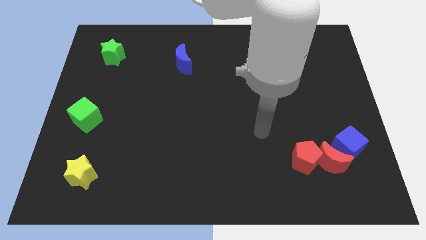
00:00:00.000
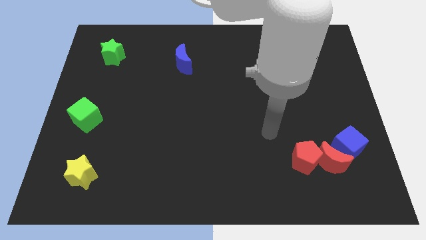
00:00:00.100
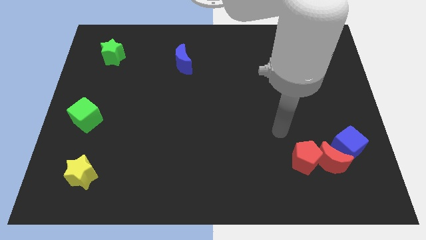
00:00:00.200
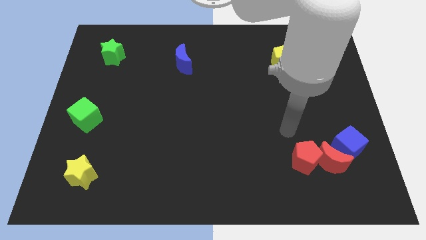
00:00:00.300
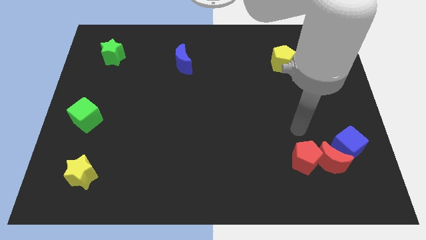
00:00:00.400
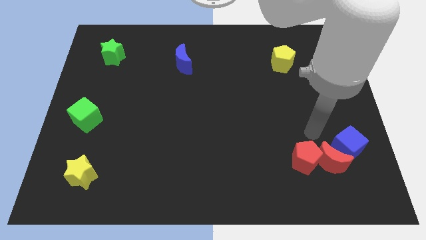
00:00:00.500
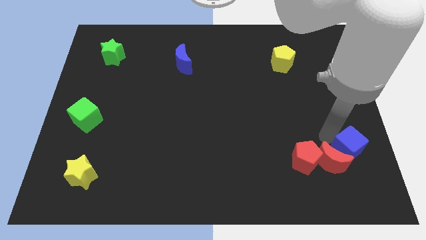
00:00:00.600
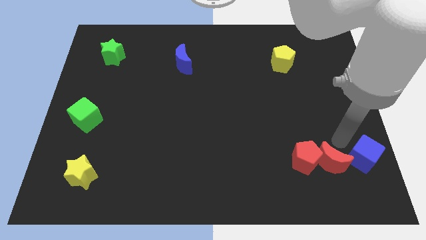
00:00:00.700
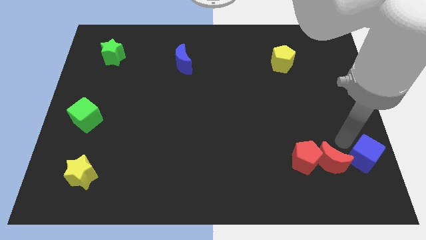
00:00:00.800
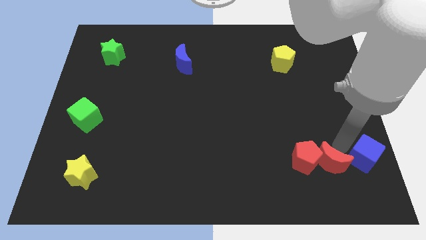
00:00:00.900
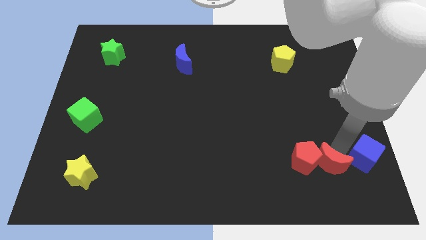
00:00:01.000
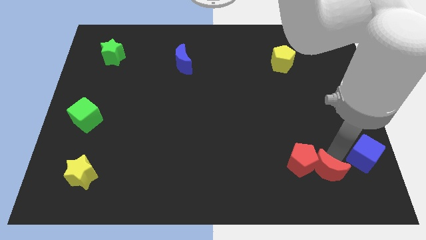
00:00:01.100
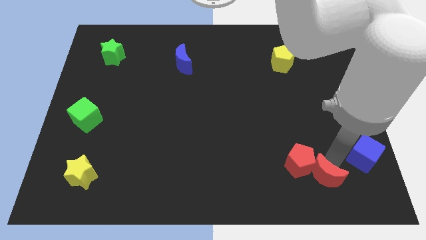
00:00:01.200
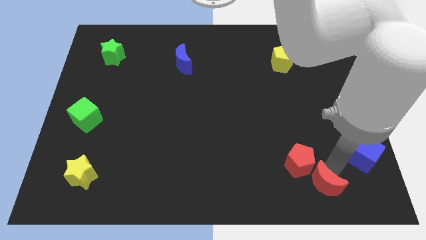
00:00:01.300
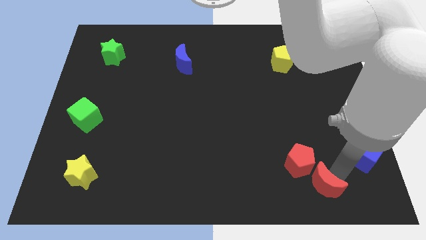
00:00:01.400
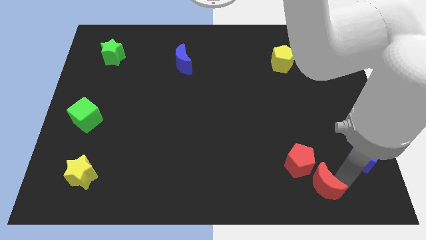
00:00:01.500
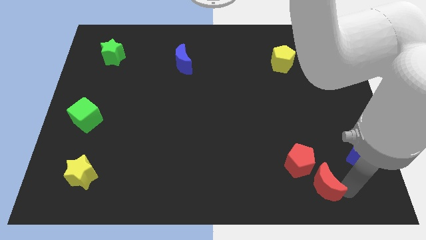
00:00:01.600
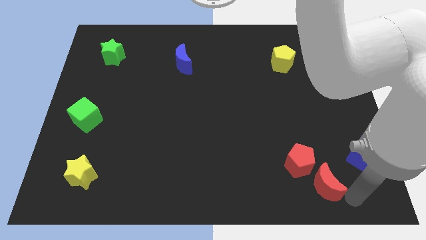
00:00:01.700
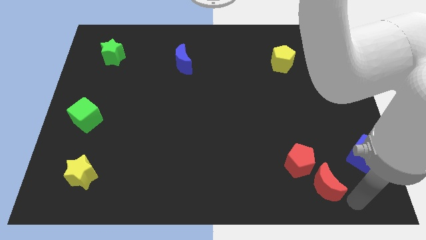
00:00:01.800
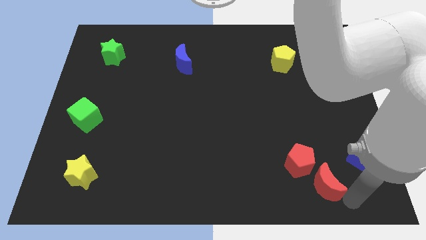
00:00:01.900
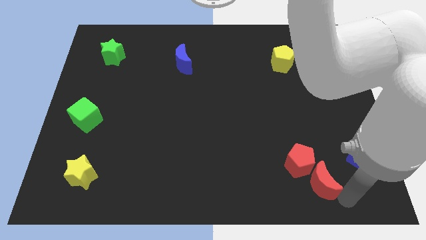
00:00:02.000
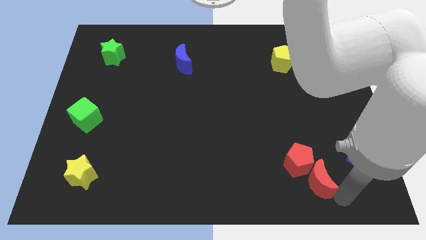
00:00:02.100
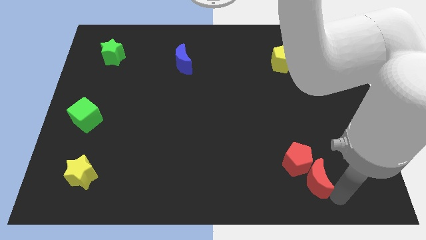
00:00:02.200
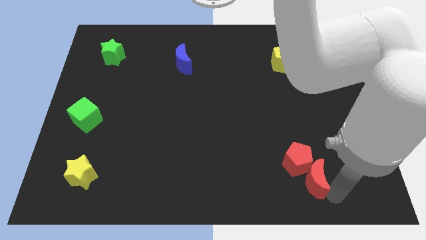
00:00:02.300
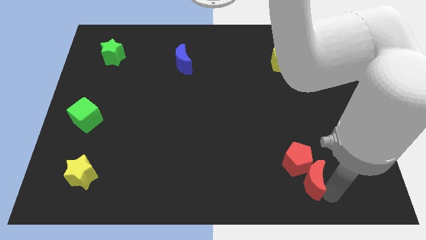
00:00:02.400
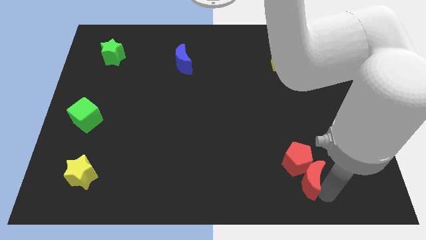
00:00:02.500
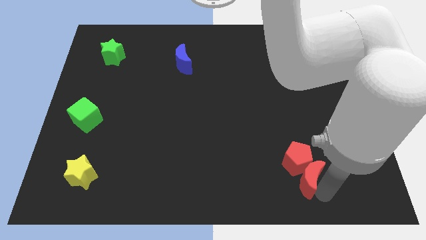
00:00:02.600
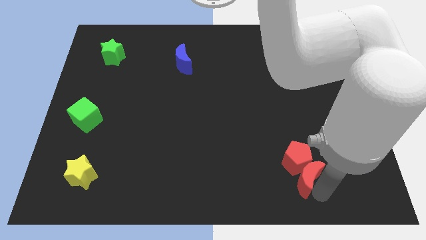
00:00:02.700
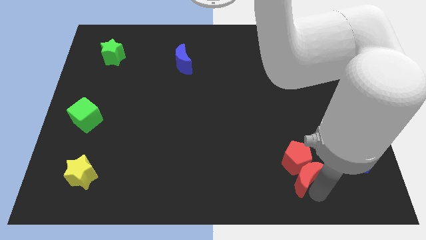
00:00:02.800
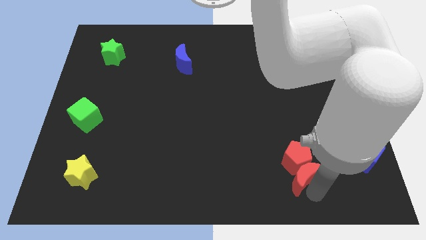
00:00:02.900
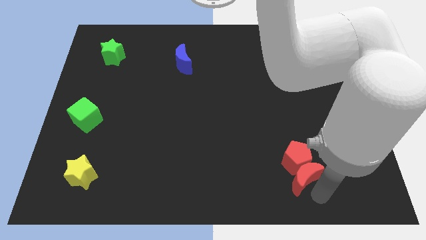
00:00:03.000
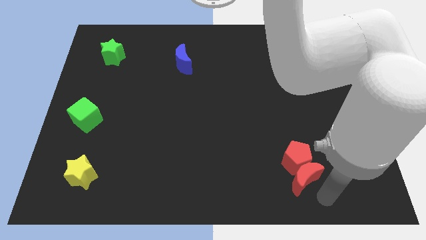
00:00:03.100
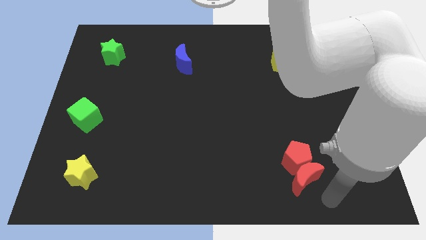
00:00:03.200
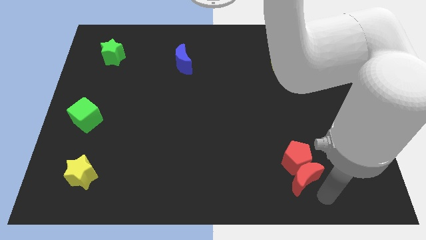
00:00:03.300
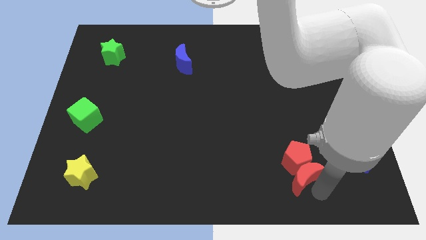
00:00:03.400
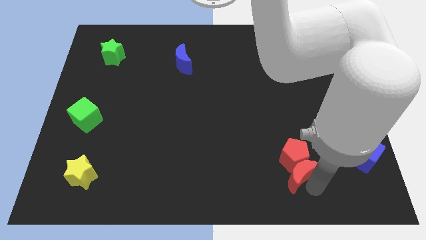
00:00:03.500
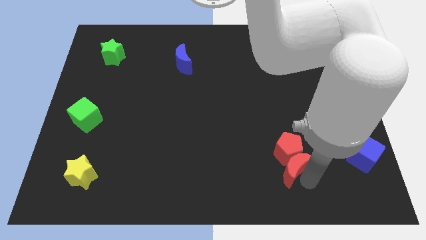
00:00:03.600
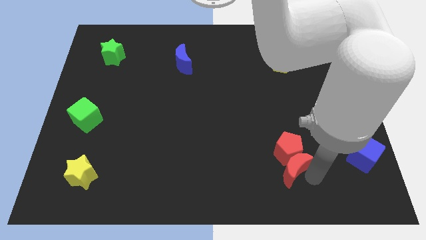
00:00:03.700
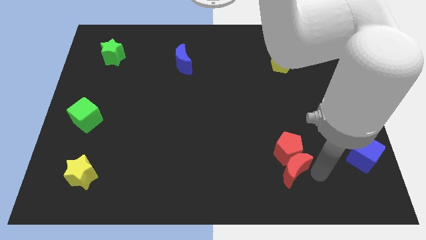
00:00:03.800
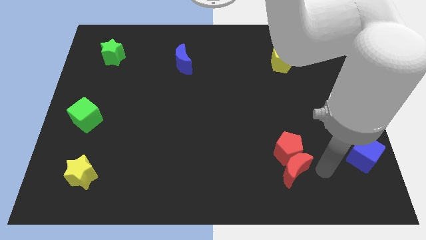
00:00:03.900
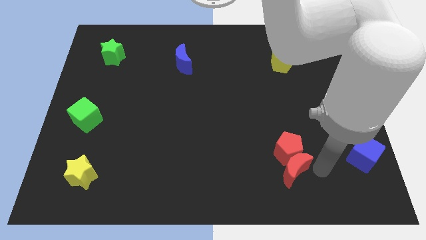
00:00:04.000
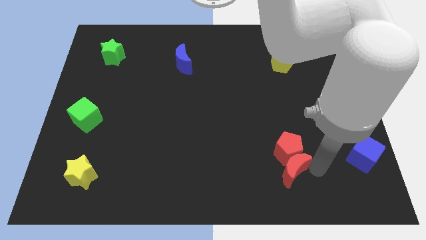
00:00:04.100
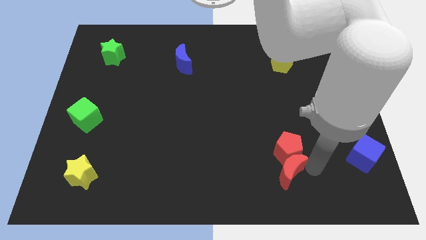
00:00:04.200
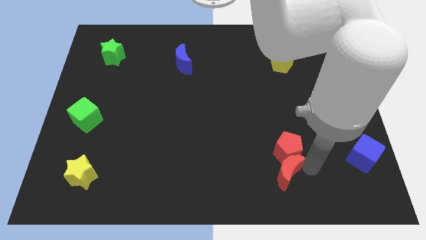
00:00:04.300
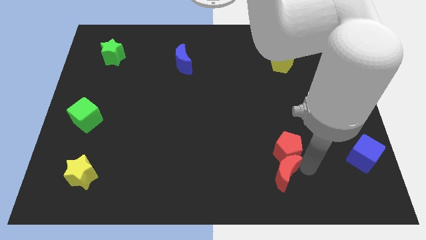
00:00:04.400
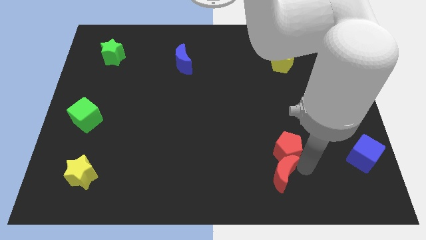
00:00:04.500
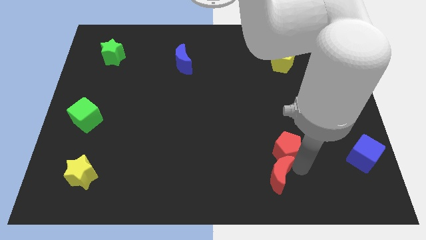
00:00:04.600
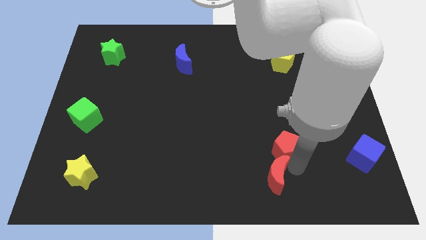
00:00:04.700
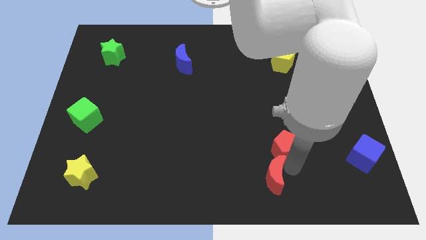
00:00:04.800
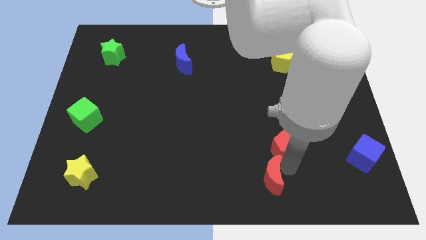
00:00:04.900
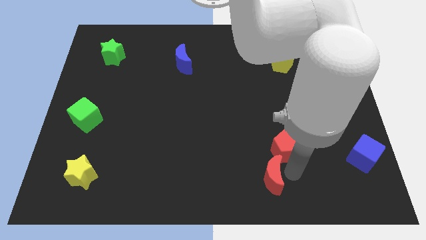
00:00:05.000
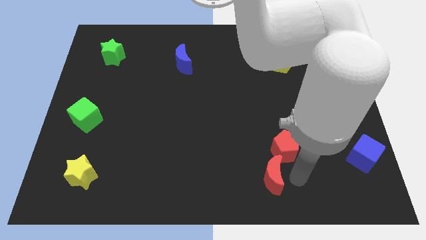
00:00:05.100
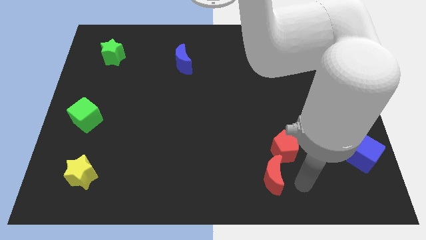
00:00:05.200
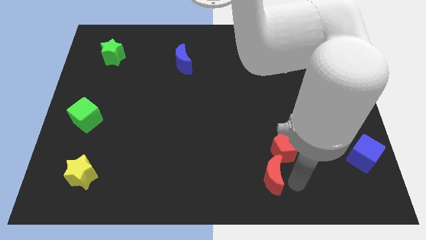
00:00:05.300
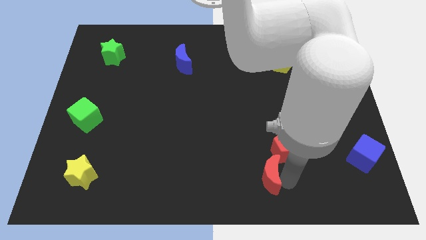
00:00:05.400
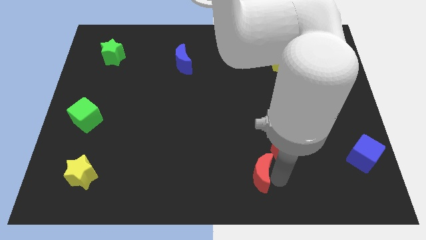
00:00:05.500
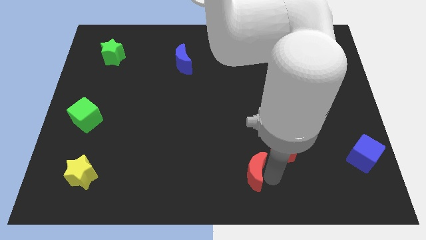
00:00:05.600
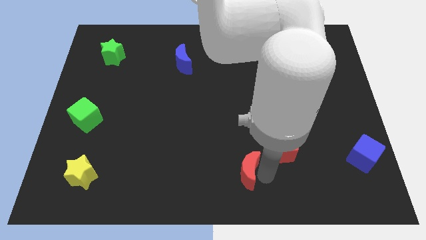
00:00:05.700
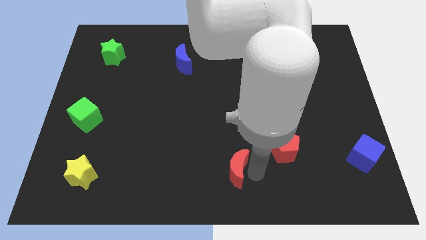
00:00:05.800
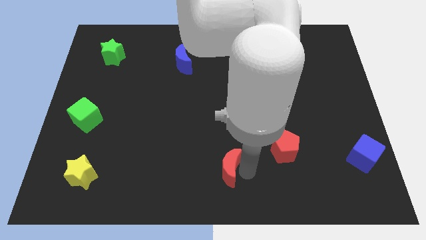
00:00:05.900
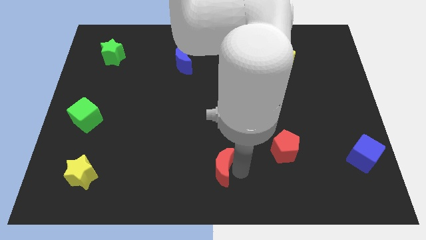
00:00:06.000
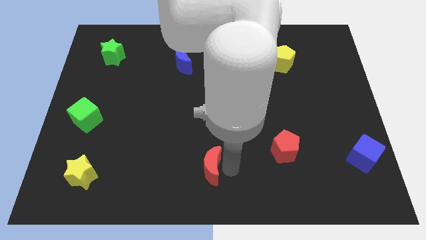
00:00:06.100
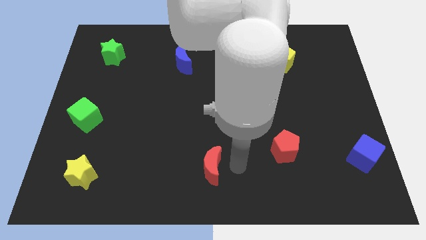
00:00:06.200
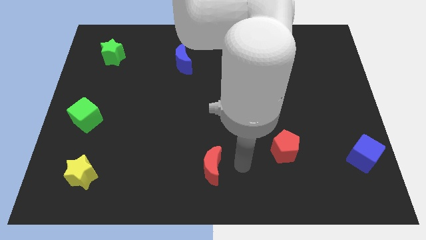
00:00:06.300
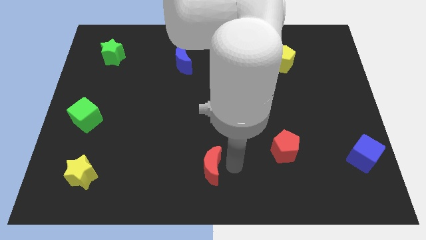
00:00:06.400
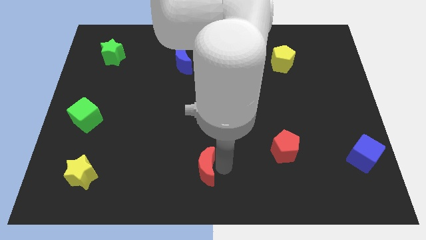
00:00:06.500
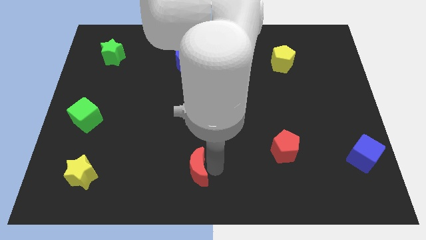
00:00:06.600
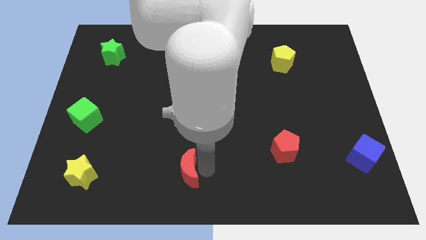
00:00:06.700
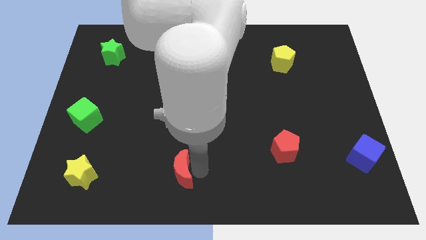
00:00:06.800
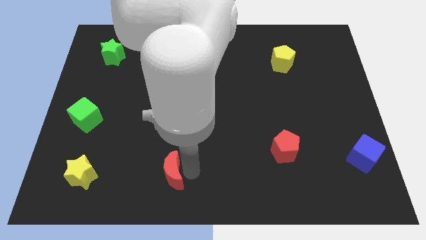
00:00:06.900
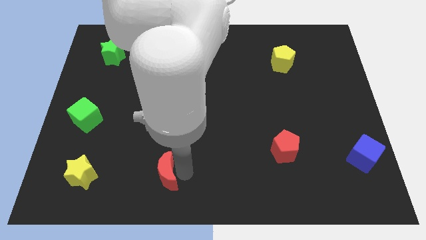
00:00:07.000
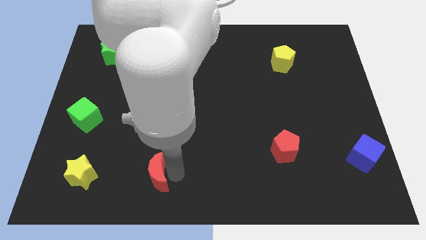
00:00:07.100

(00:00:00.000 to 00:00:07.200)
put the red moon to the right of the yellow star
